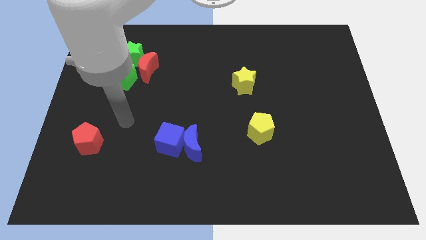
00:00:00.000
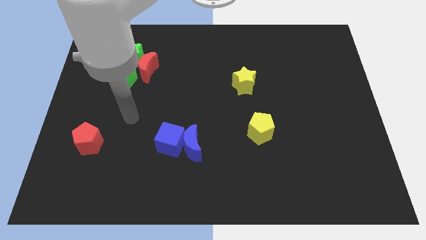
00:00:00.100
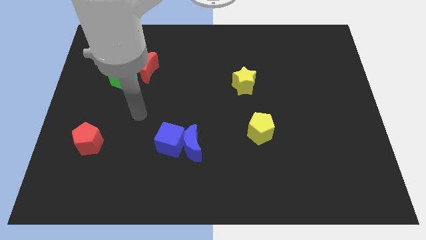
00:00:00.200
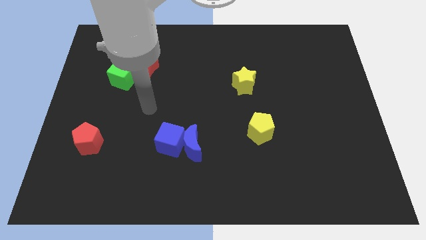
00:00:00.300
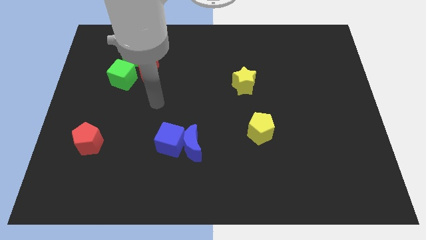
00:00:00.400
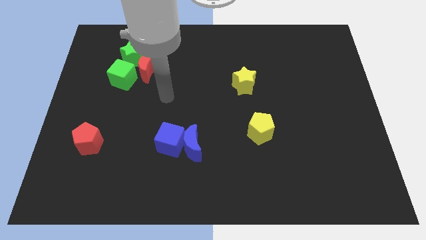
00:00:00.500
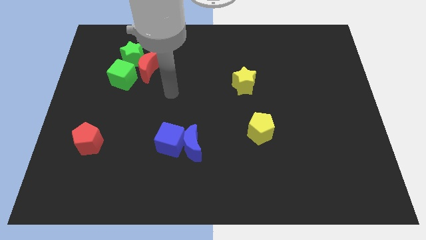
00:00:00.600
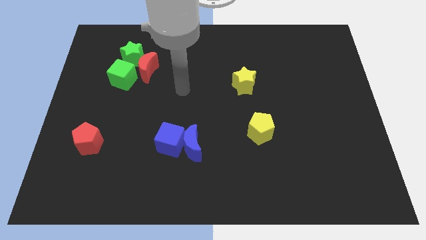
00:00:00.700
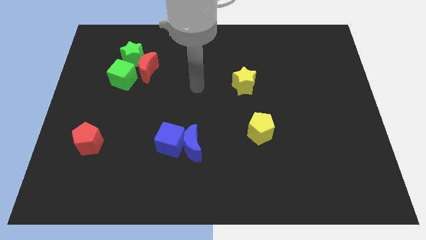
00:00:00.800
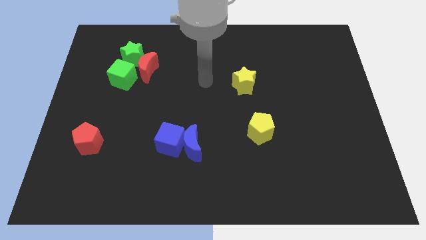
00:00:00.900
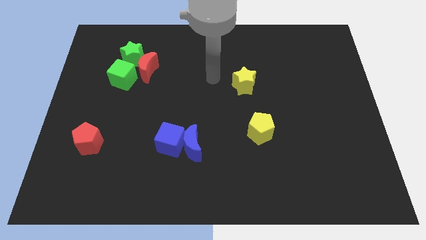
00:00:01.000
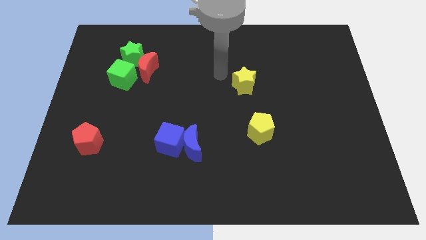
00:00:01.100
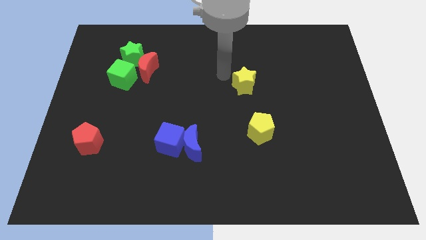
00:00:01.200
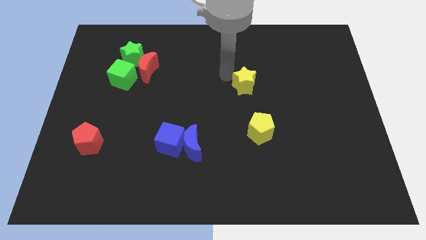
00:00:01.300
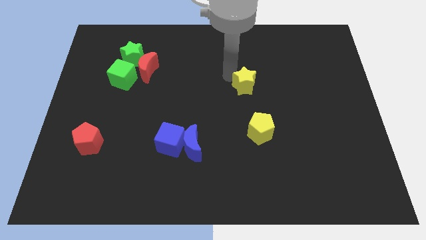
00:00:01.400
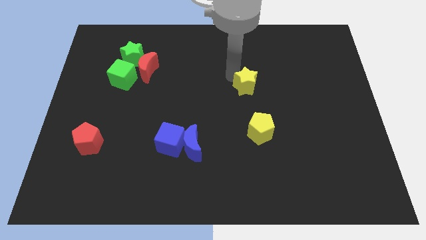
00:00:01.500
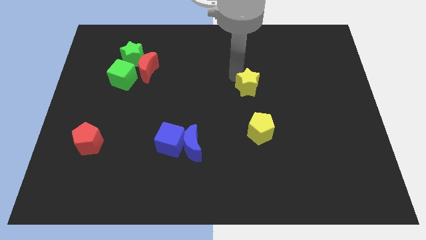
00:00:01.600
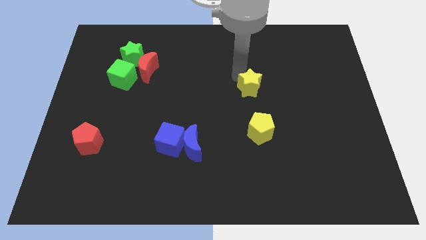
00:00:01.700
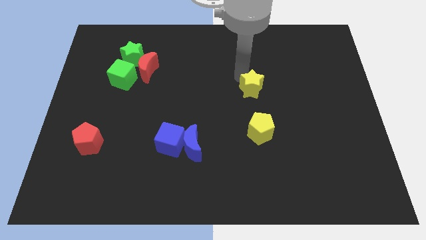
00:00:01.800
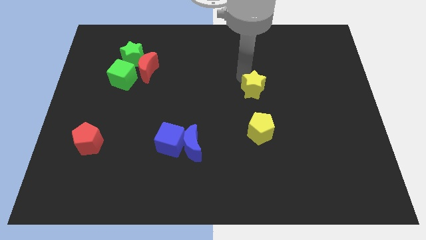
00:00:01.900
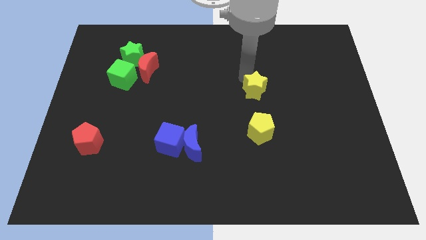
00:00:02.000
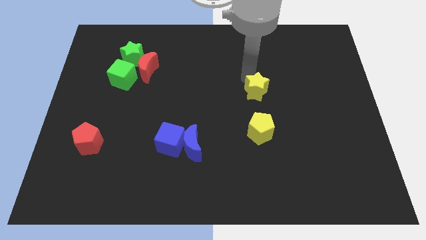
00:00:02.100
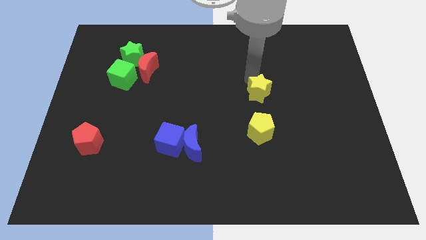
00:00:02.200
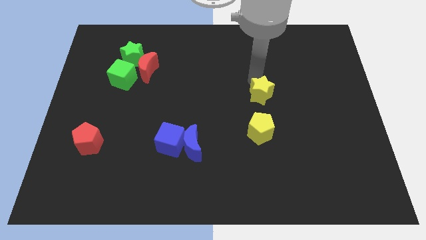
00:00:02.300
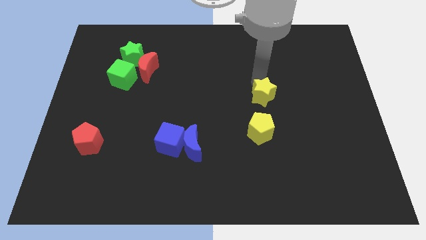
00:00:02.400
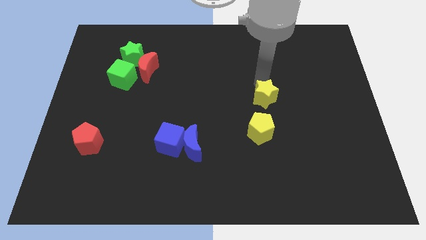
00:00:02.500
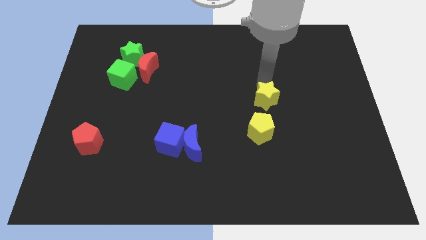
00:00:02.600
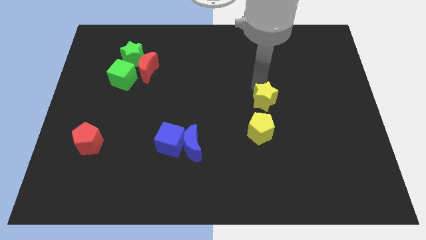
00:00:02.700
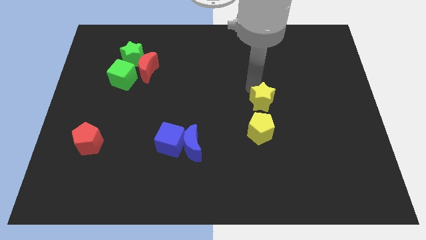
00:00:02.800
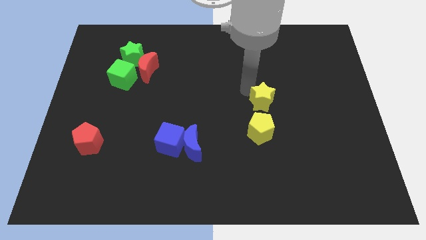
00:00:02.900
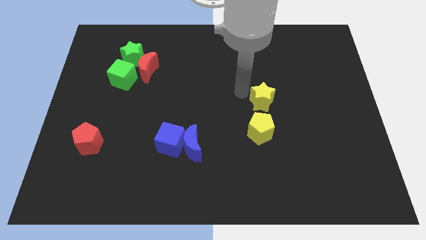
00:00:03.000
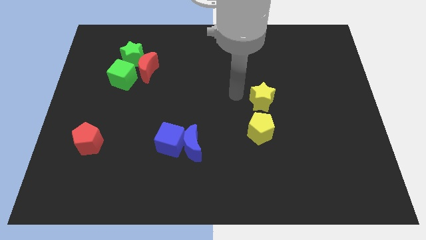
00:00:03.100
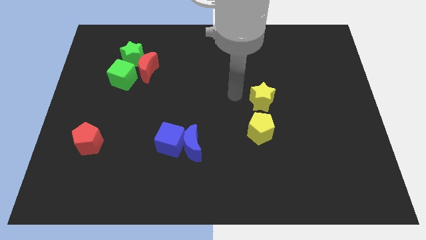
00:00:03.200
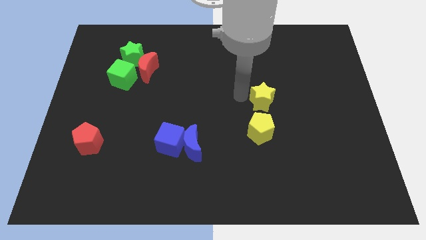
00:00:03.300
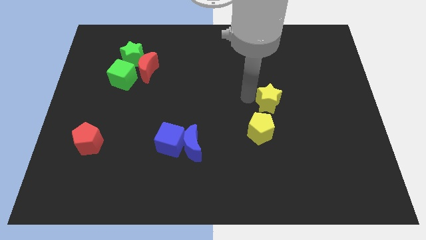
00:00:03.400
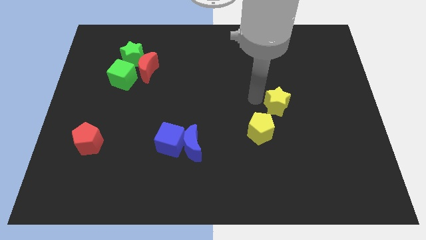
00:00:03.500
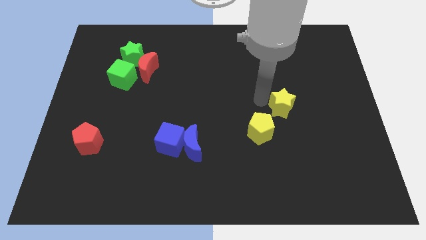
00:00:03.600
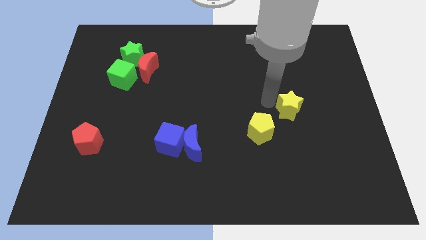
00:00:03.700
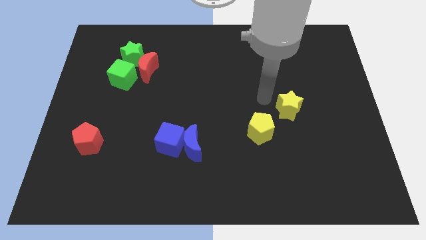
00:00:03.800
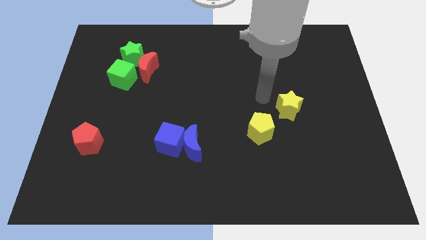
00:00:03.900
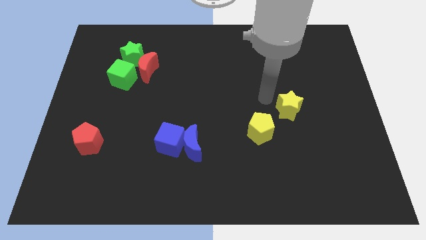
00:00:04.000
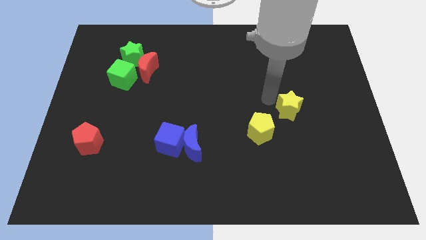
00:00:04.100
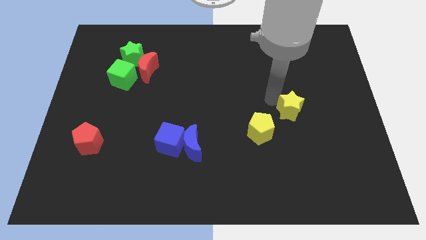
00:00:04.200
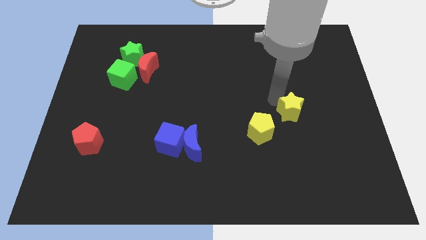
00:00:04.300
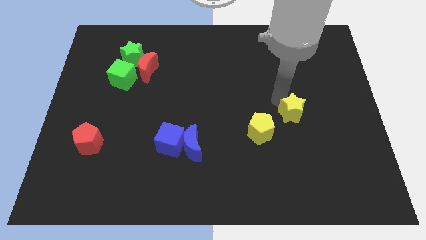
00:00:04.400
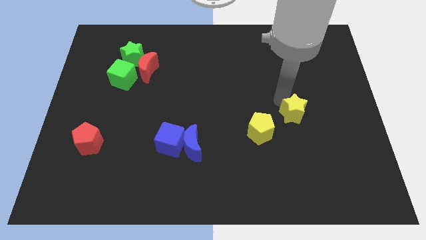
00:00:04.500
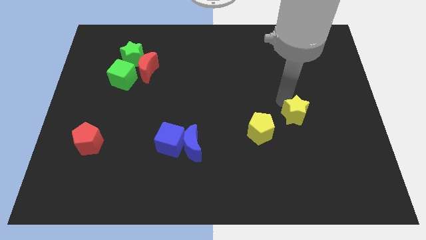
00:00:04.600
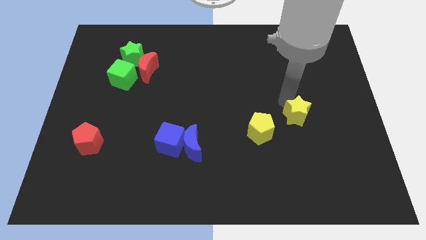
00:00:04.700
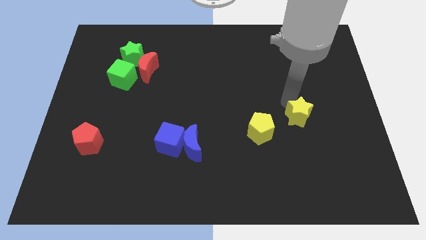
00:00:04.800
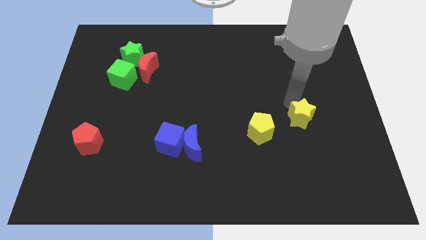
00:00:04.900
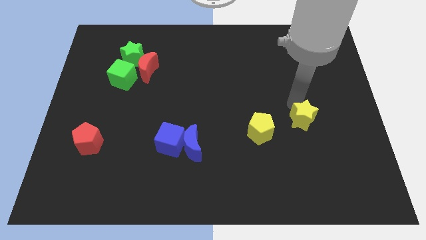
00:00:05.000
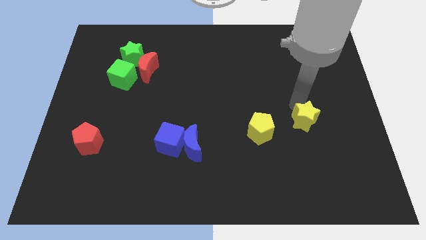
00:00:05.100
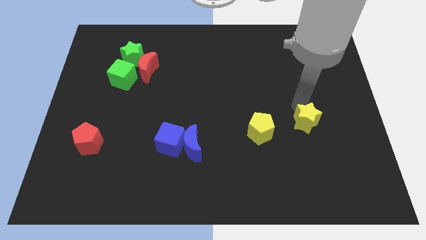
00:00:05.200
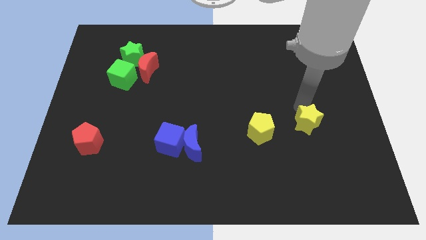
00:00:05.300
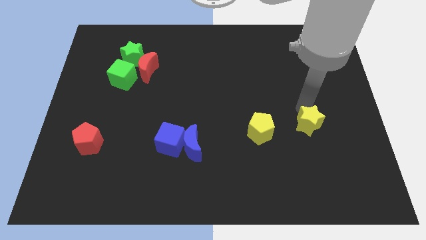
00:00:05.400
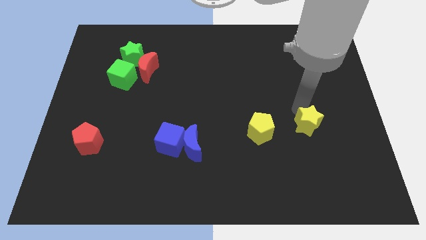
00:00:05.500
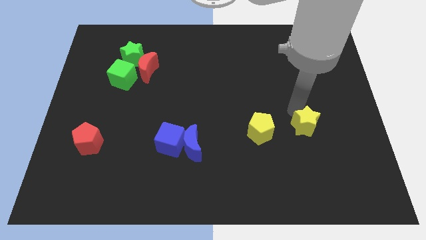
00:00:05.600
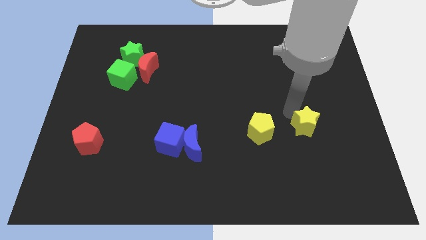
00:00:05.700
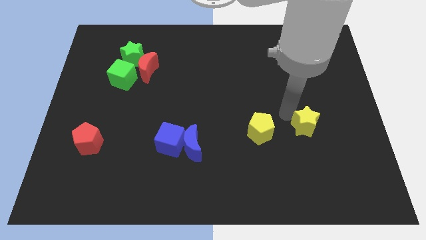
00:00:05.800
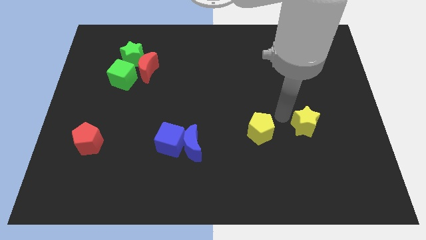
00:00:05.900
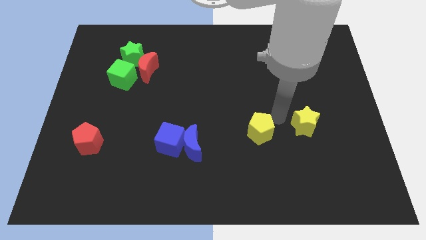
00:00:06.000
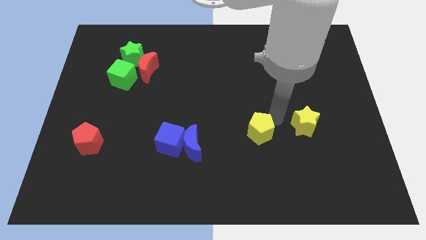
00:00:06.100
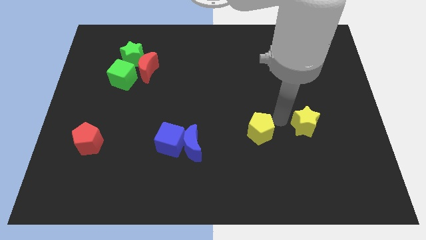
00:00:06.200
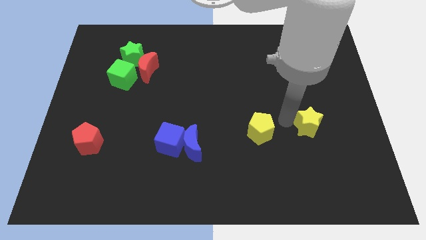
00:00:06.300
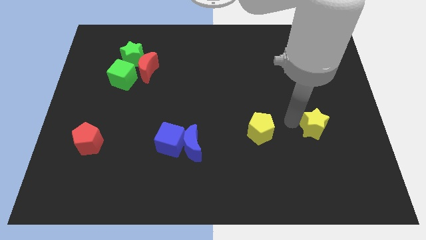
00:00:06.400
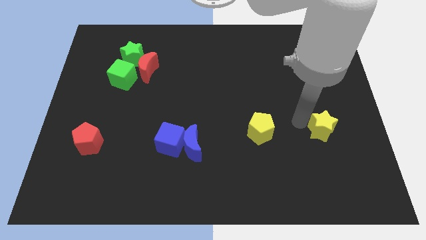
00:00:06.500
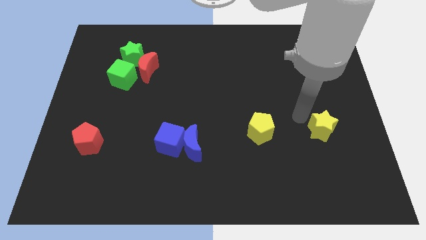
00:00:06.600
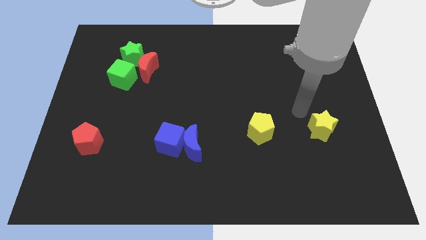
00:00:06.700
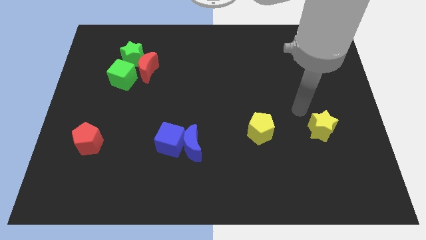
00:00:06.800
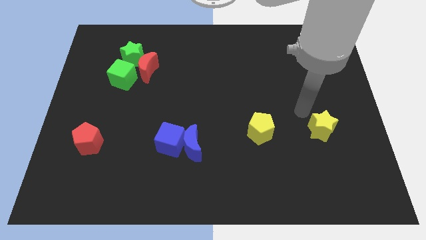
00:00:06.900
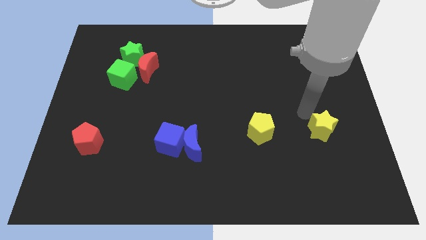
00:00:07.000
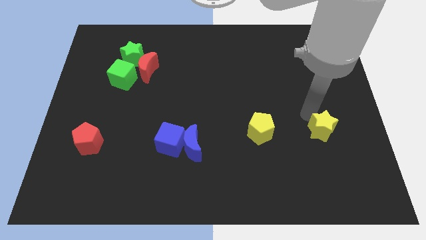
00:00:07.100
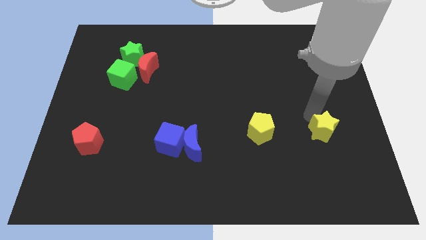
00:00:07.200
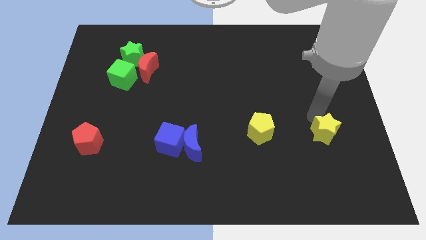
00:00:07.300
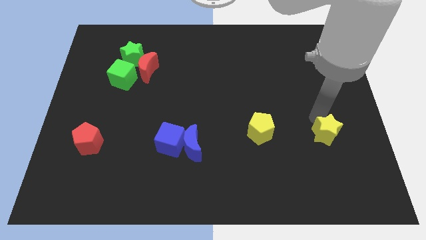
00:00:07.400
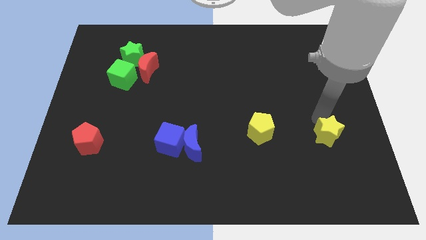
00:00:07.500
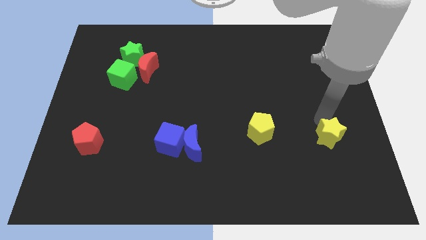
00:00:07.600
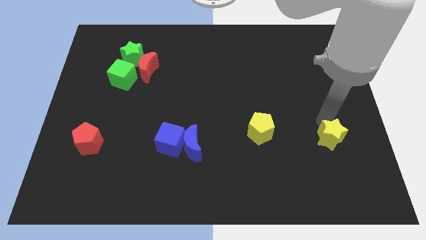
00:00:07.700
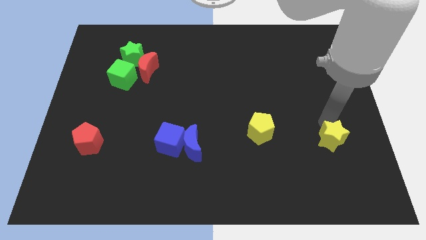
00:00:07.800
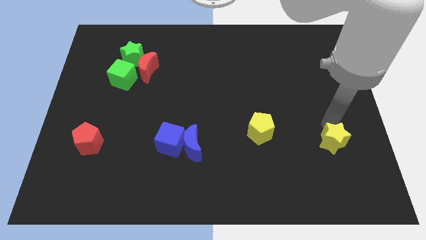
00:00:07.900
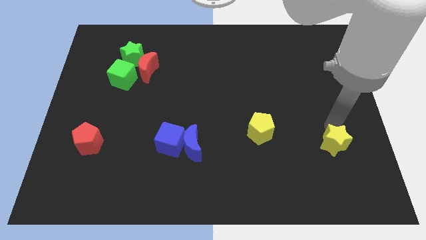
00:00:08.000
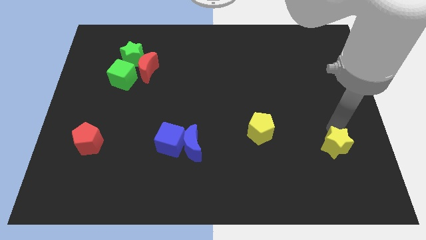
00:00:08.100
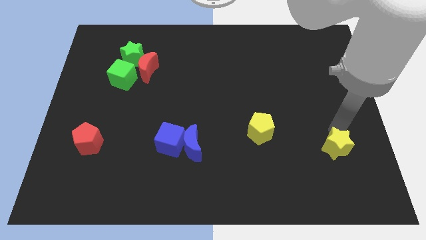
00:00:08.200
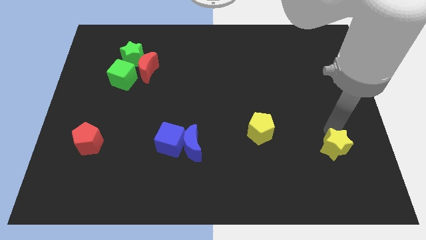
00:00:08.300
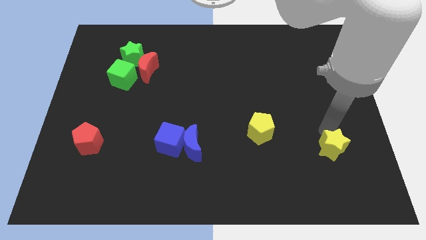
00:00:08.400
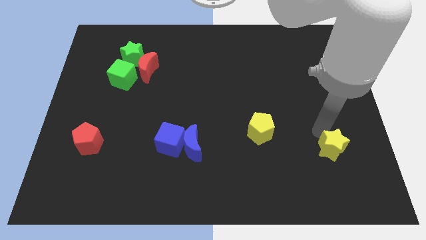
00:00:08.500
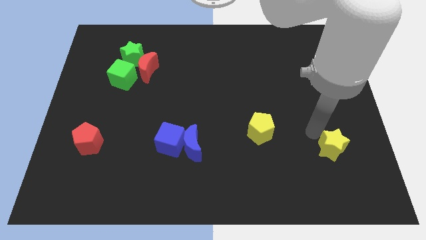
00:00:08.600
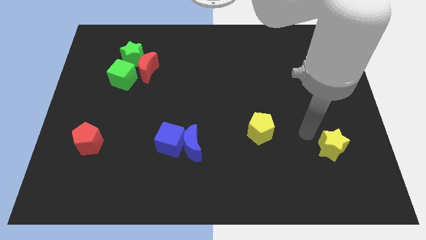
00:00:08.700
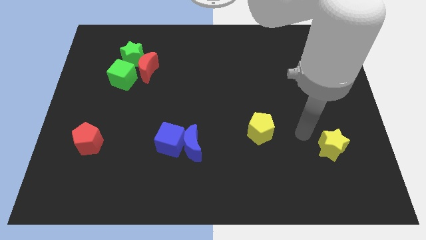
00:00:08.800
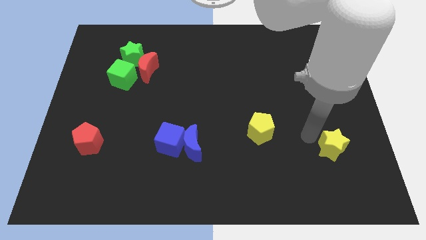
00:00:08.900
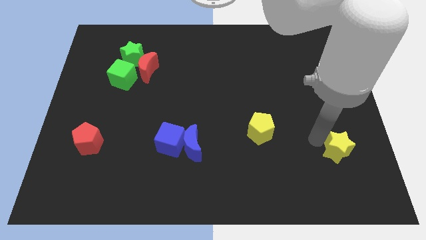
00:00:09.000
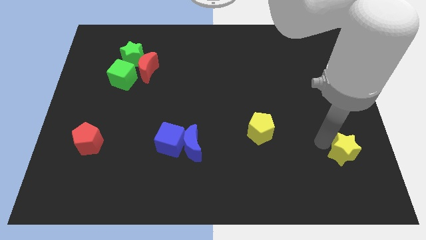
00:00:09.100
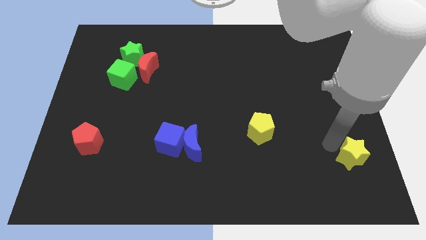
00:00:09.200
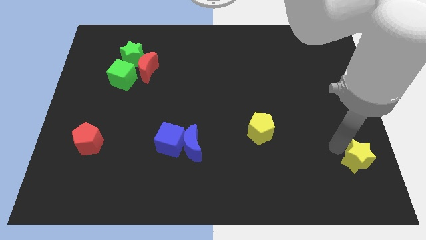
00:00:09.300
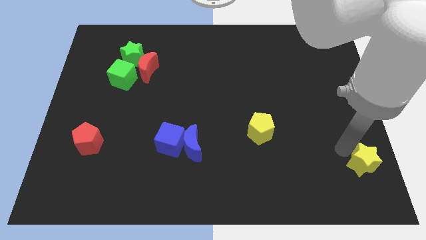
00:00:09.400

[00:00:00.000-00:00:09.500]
slide the yellow star to the bottom right corner
